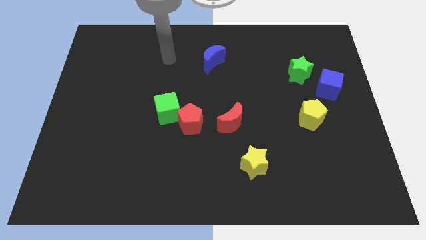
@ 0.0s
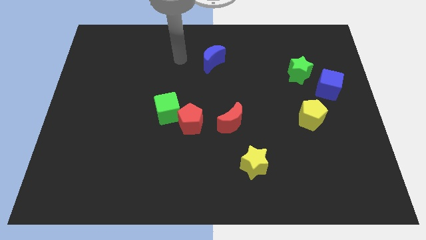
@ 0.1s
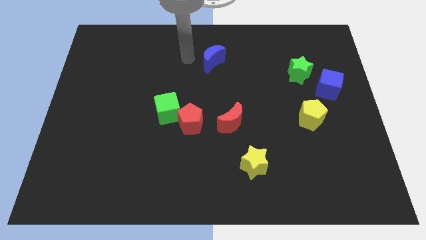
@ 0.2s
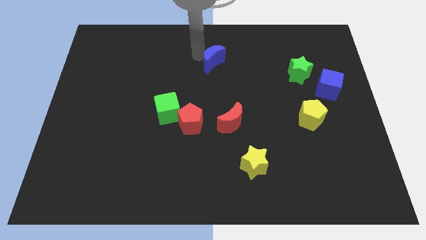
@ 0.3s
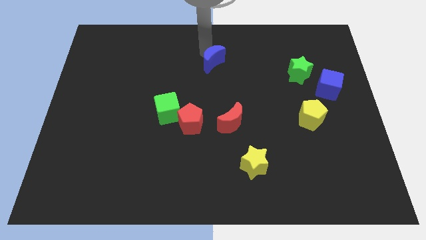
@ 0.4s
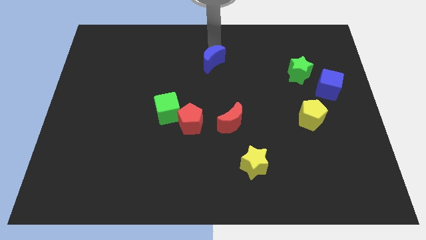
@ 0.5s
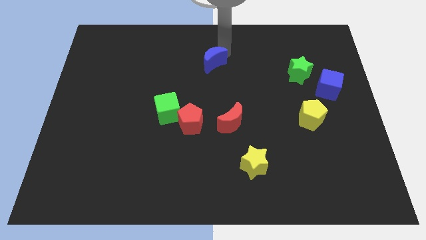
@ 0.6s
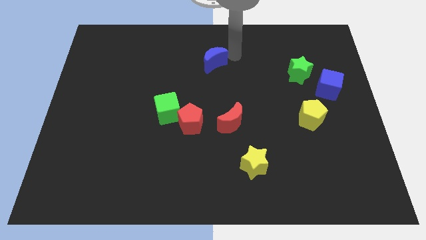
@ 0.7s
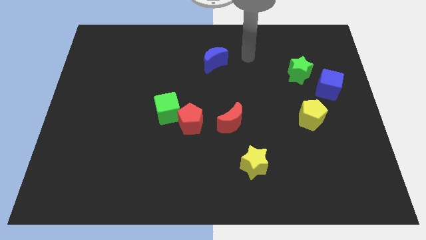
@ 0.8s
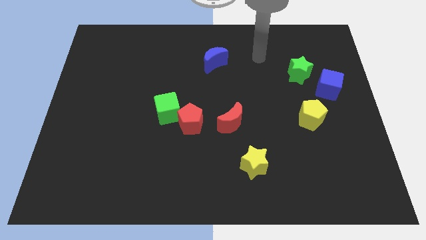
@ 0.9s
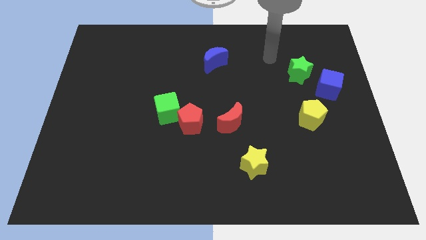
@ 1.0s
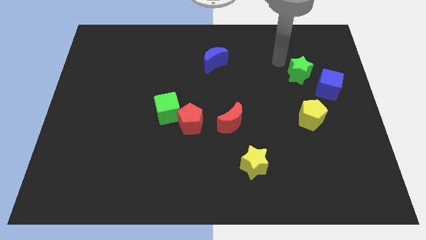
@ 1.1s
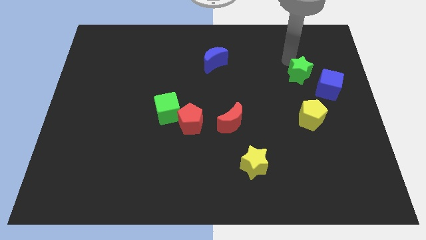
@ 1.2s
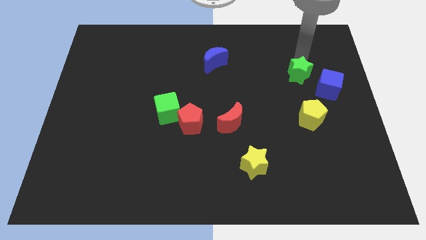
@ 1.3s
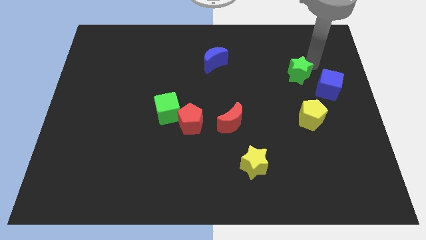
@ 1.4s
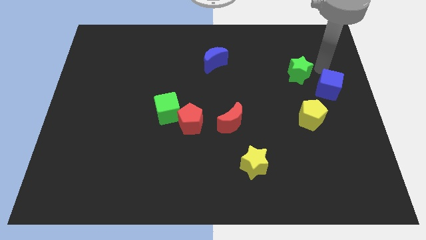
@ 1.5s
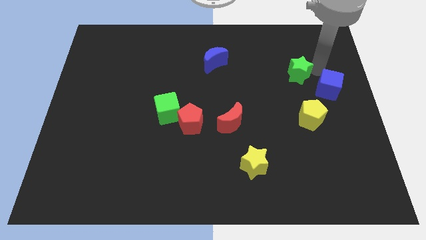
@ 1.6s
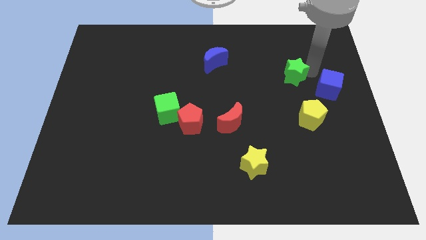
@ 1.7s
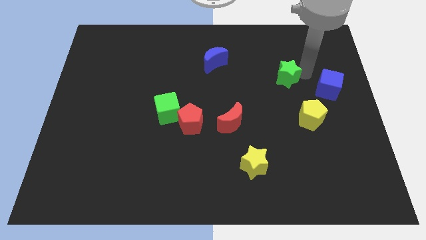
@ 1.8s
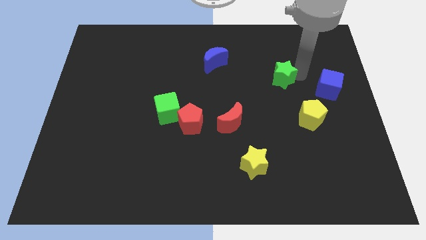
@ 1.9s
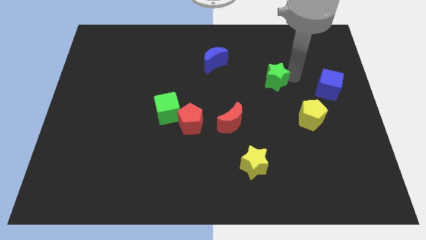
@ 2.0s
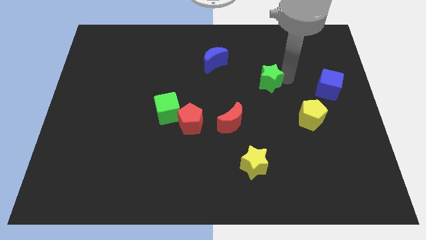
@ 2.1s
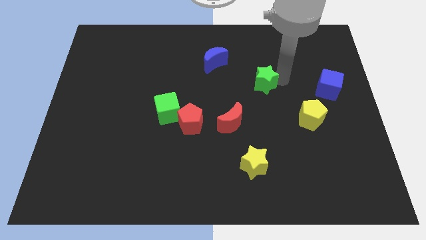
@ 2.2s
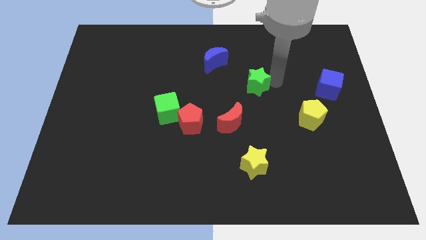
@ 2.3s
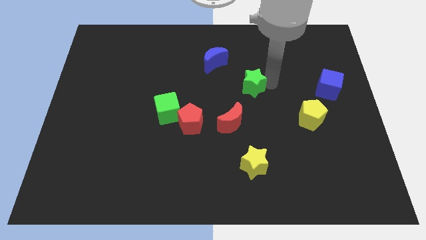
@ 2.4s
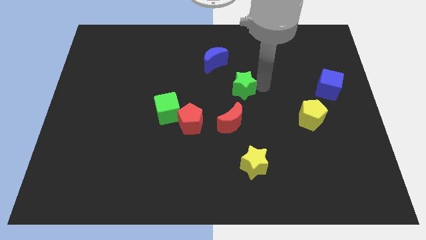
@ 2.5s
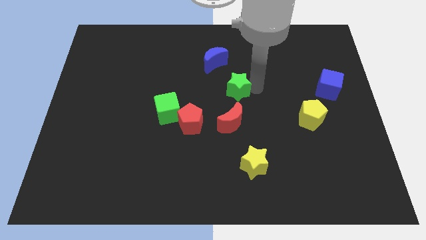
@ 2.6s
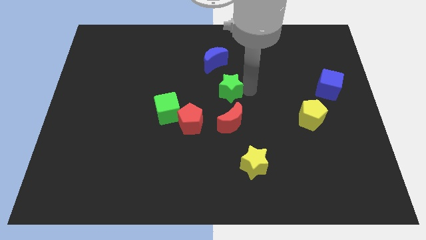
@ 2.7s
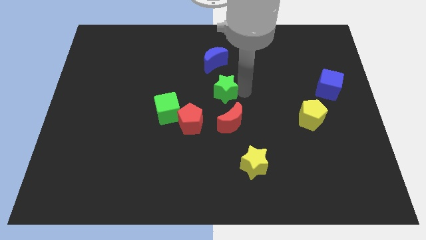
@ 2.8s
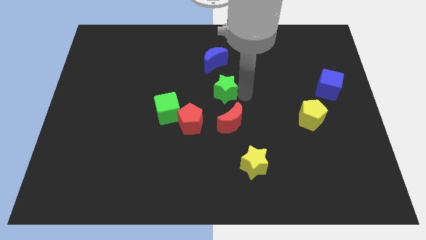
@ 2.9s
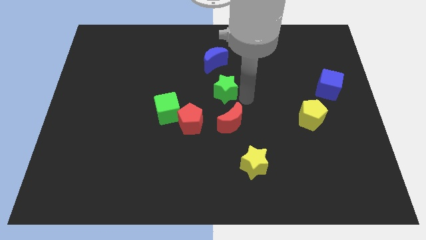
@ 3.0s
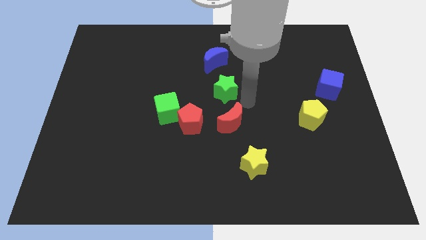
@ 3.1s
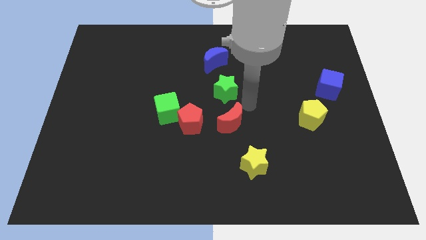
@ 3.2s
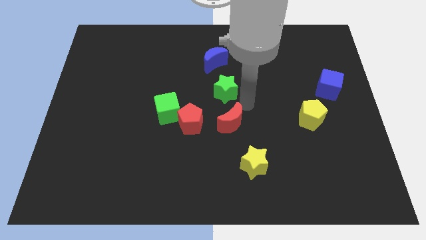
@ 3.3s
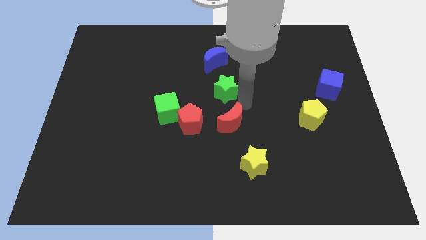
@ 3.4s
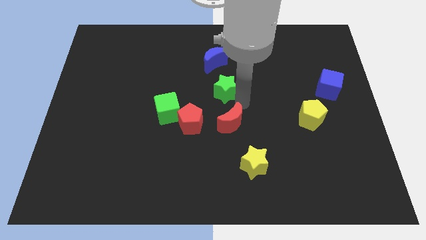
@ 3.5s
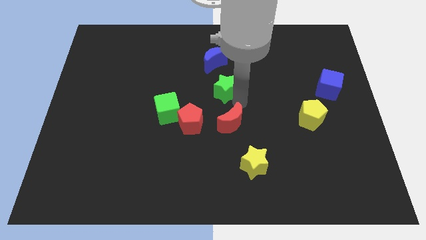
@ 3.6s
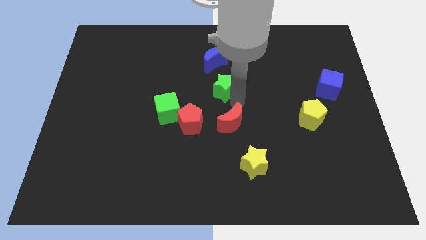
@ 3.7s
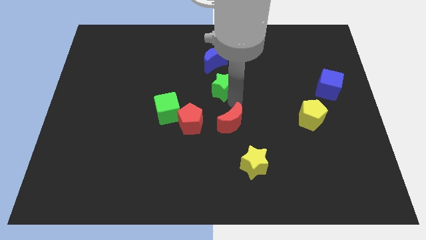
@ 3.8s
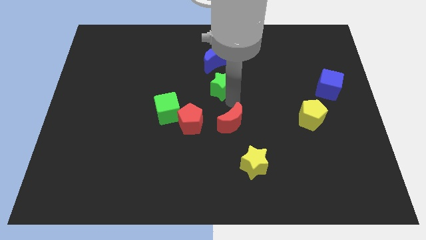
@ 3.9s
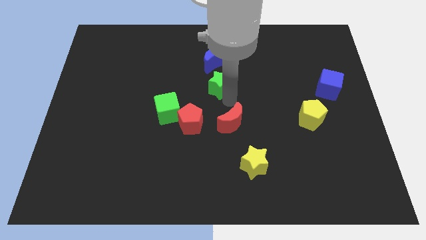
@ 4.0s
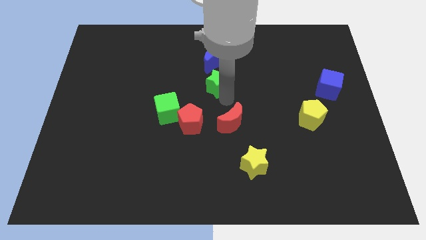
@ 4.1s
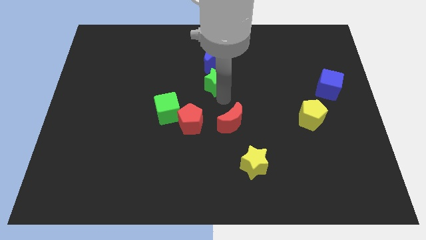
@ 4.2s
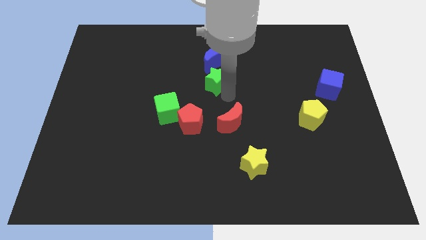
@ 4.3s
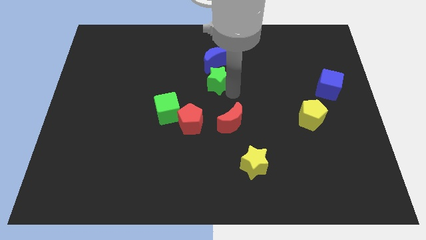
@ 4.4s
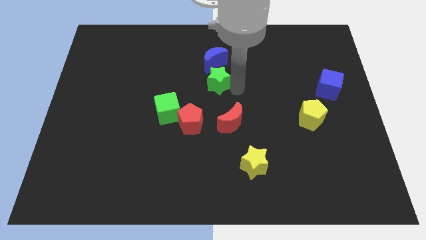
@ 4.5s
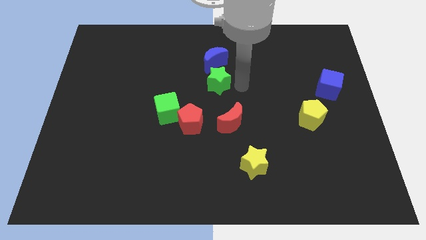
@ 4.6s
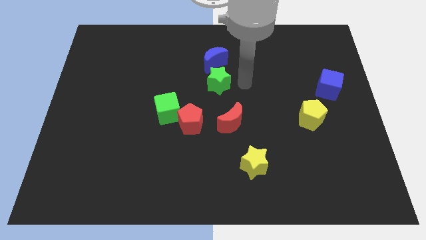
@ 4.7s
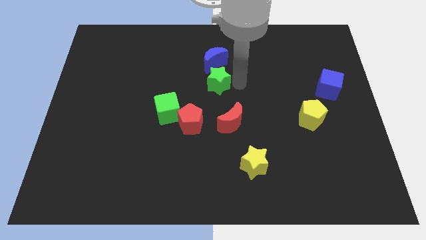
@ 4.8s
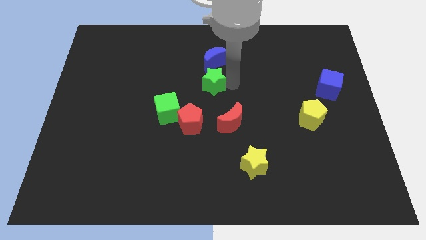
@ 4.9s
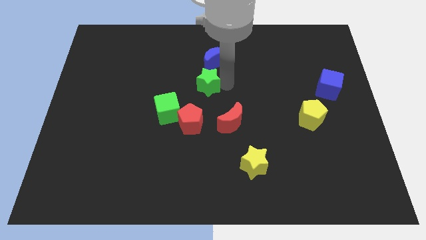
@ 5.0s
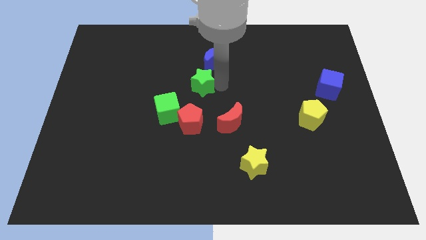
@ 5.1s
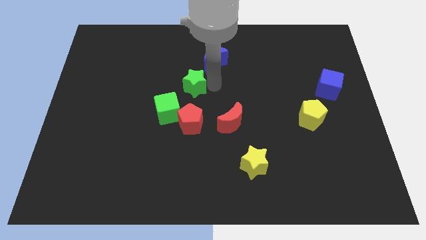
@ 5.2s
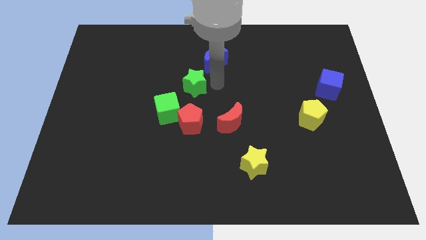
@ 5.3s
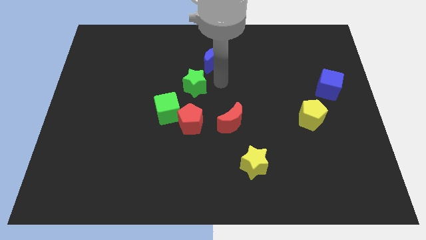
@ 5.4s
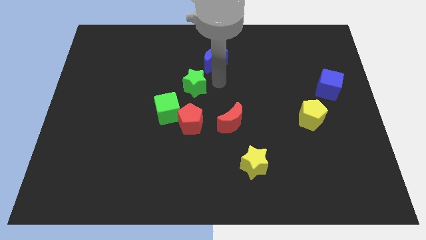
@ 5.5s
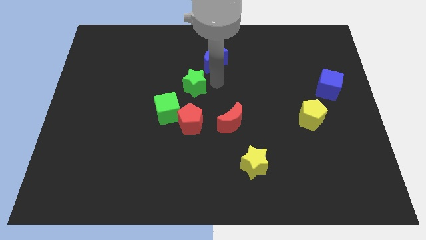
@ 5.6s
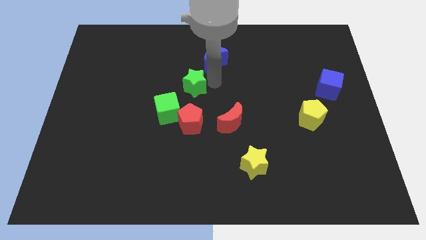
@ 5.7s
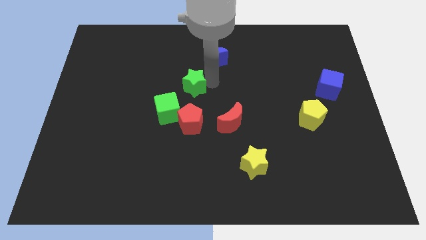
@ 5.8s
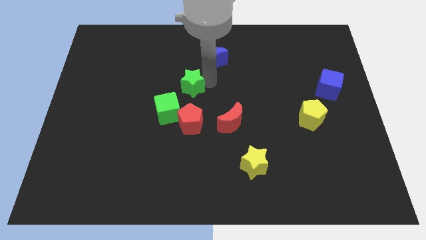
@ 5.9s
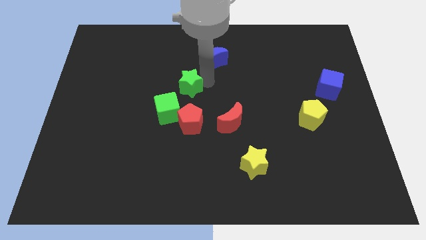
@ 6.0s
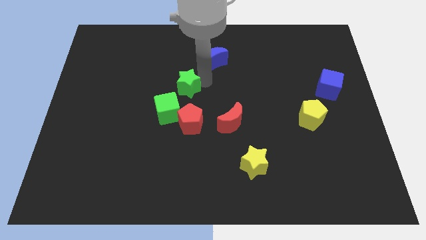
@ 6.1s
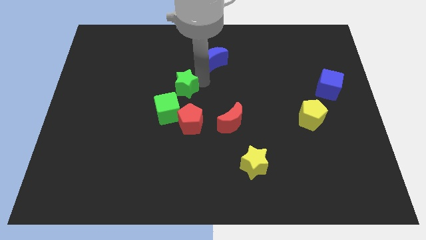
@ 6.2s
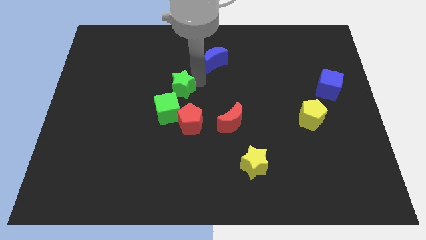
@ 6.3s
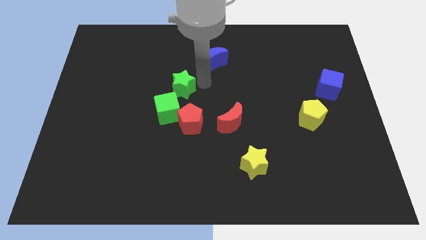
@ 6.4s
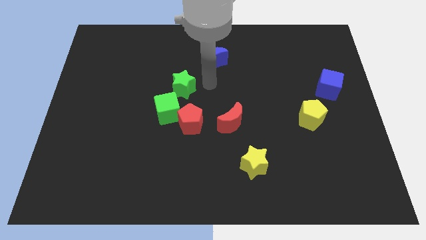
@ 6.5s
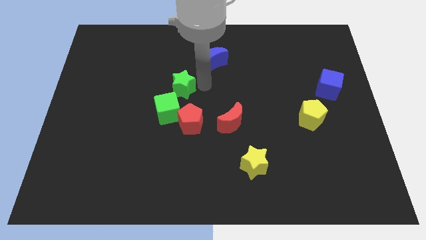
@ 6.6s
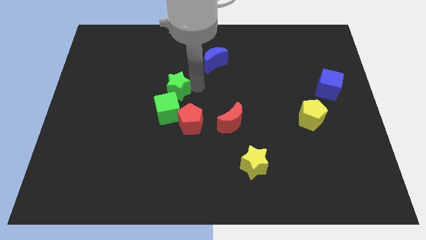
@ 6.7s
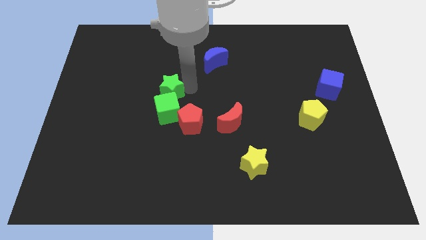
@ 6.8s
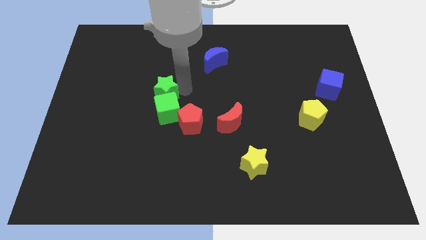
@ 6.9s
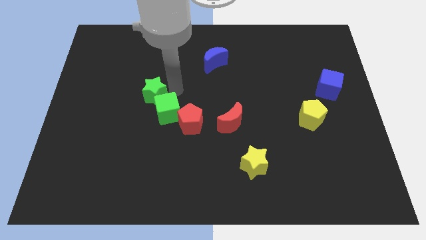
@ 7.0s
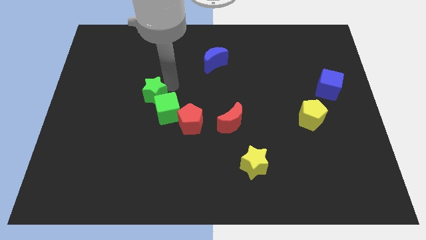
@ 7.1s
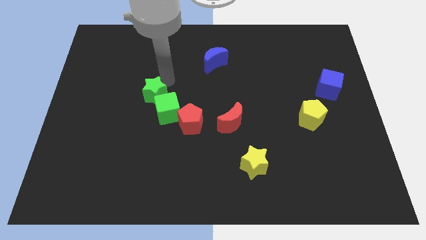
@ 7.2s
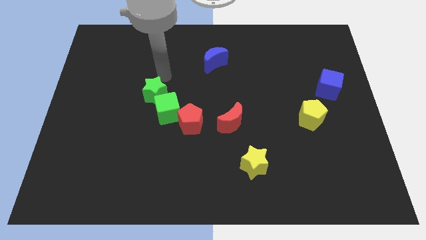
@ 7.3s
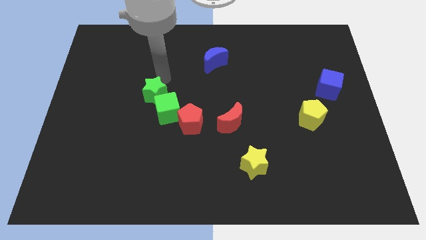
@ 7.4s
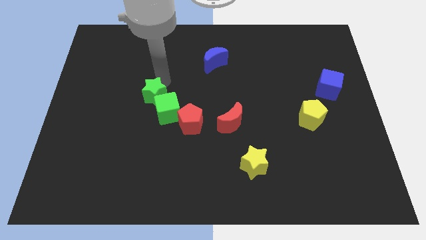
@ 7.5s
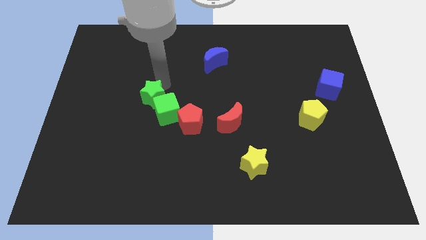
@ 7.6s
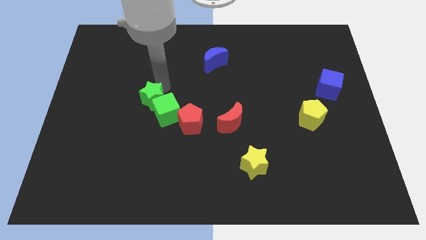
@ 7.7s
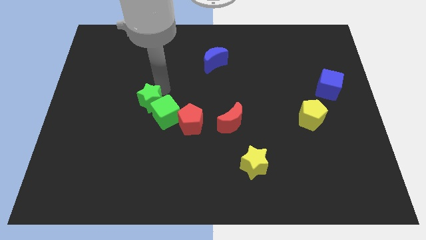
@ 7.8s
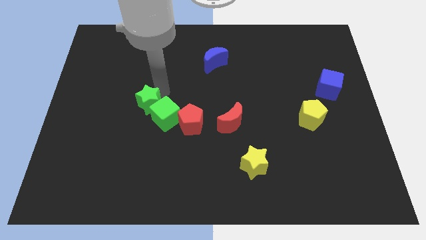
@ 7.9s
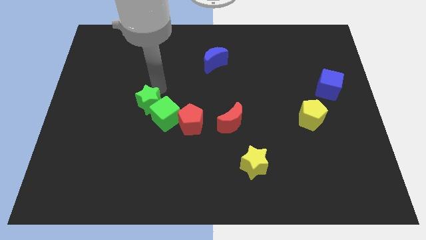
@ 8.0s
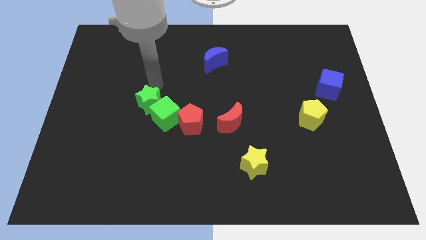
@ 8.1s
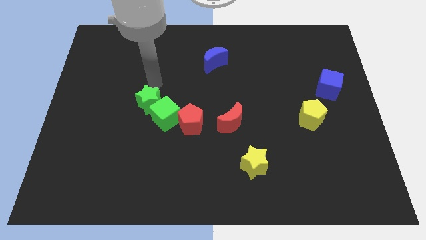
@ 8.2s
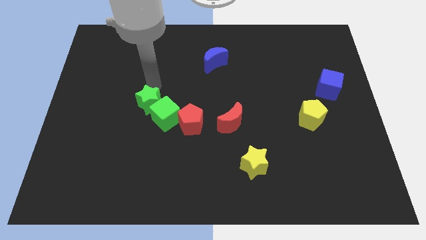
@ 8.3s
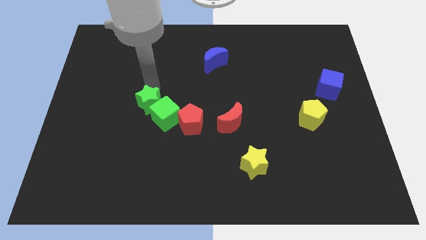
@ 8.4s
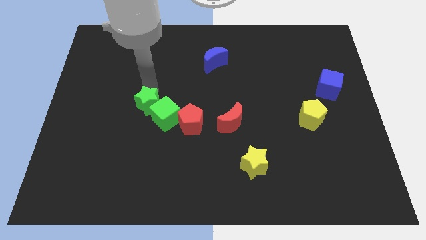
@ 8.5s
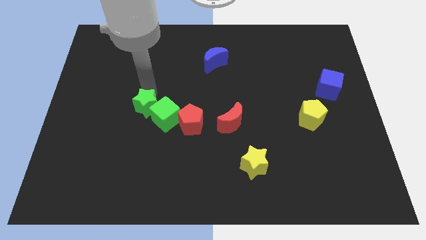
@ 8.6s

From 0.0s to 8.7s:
move the green star to the left side of the red pentagon
